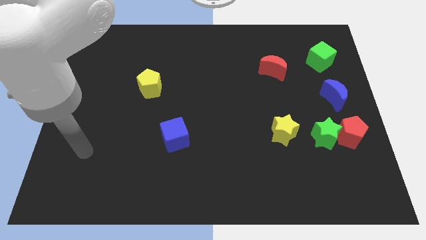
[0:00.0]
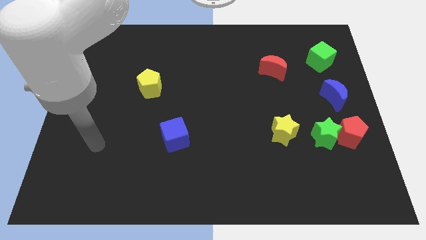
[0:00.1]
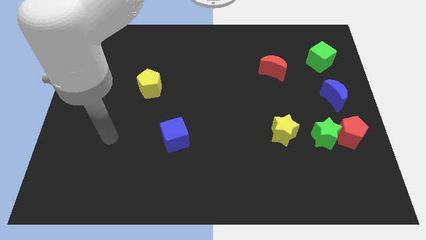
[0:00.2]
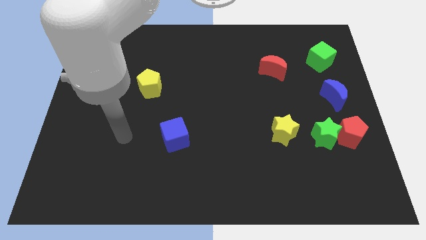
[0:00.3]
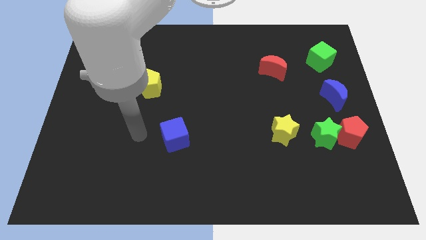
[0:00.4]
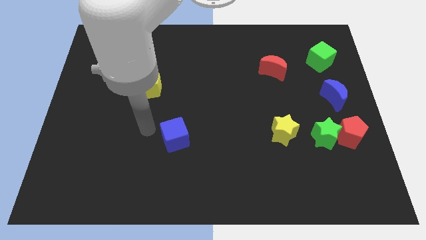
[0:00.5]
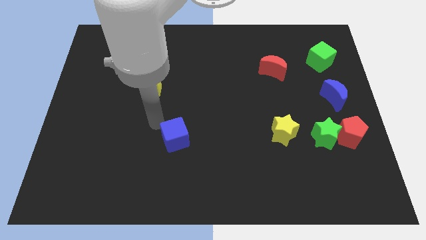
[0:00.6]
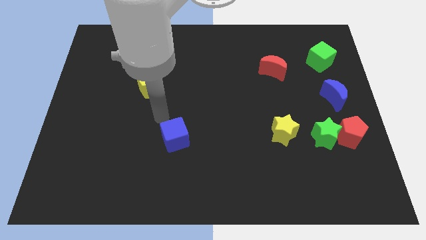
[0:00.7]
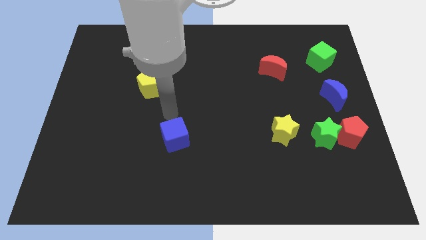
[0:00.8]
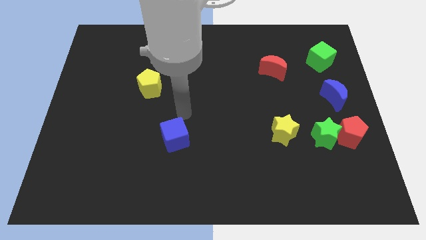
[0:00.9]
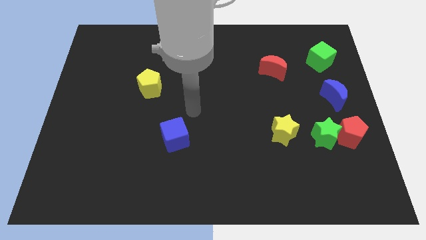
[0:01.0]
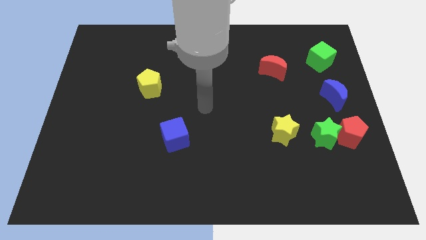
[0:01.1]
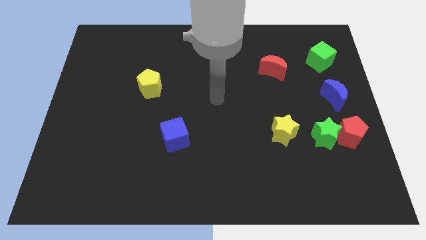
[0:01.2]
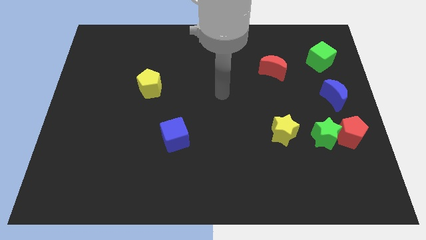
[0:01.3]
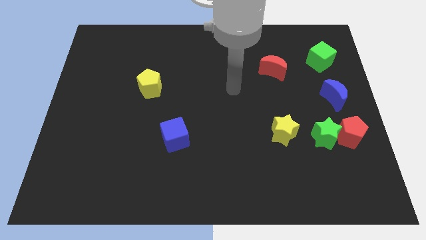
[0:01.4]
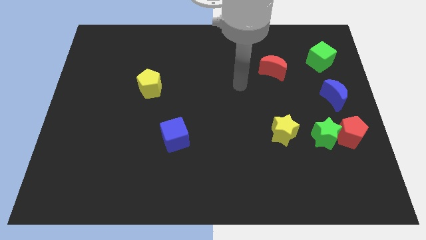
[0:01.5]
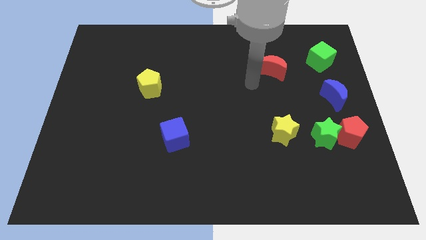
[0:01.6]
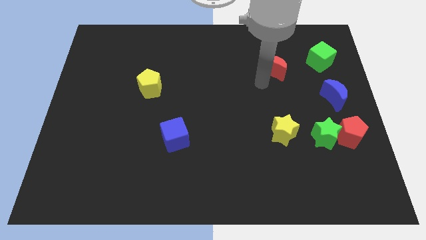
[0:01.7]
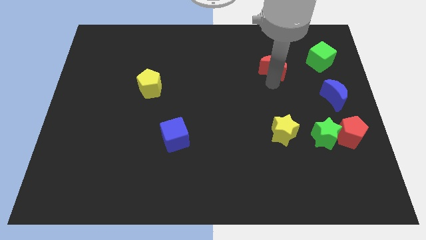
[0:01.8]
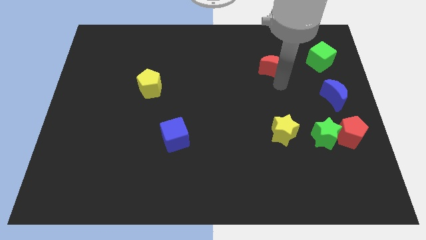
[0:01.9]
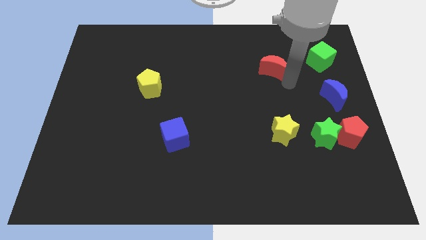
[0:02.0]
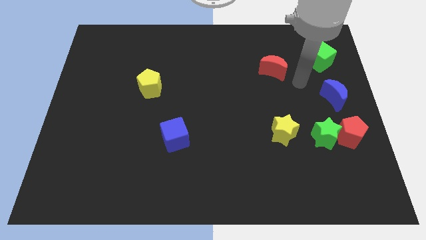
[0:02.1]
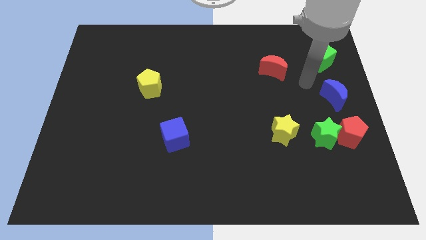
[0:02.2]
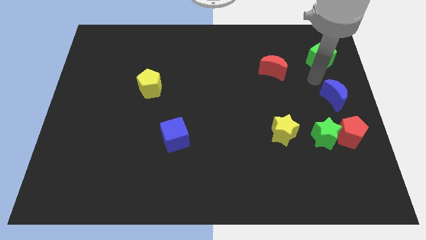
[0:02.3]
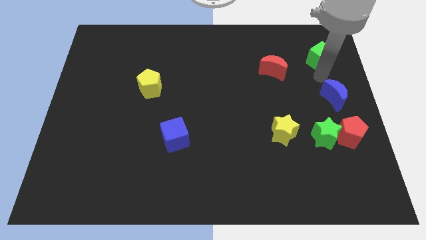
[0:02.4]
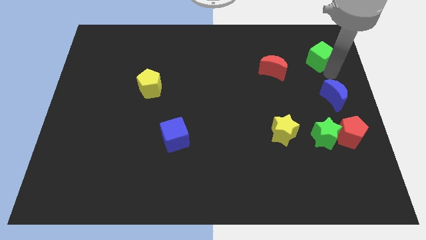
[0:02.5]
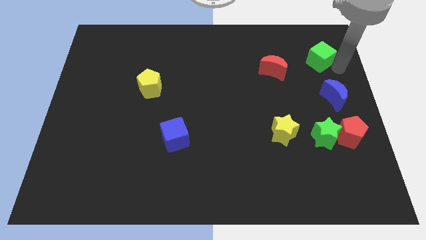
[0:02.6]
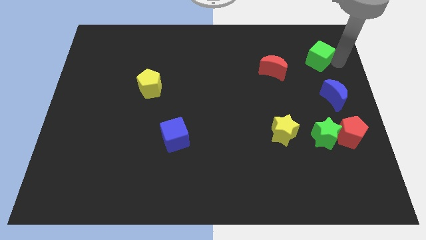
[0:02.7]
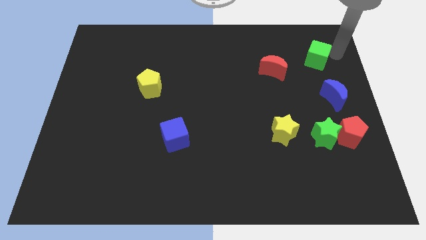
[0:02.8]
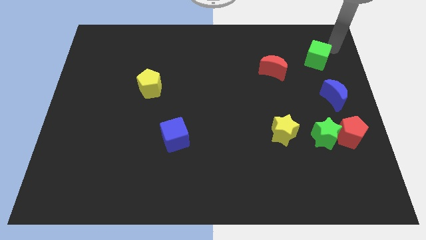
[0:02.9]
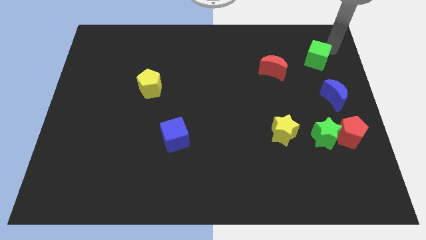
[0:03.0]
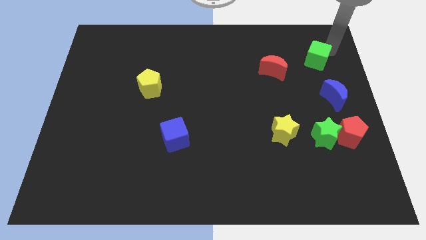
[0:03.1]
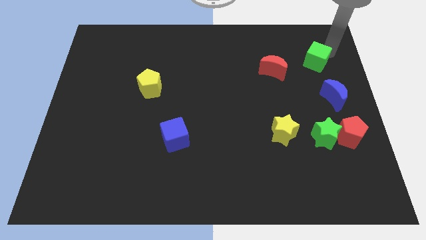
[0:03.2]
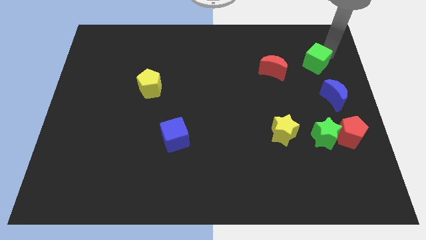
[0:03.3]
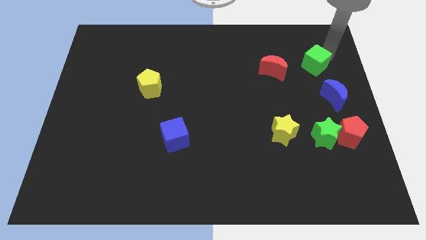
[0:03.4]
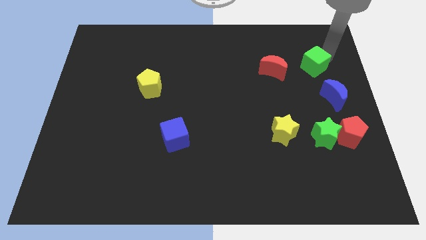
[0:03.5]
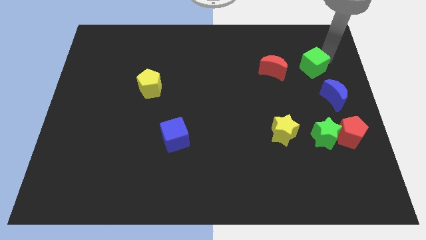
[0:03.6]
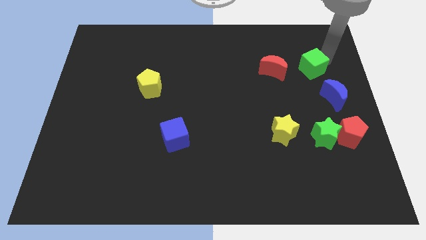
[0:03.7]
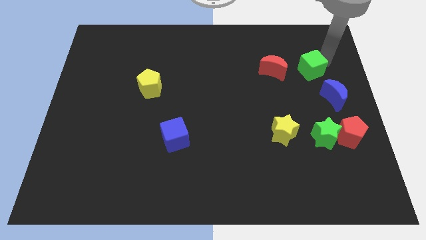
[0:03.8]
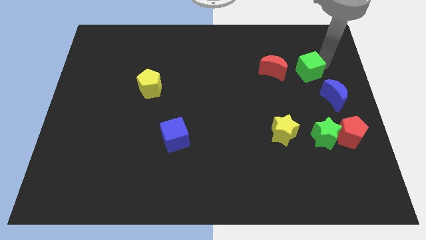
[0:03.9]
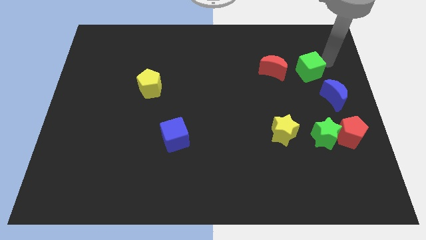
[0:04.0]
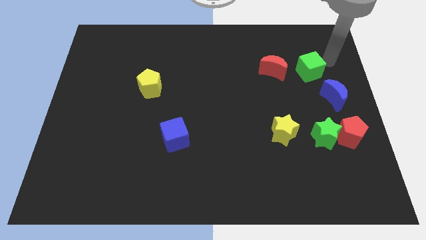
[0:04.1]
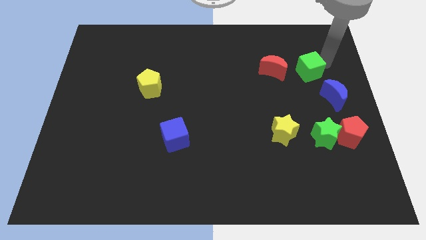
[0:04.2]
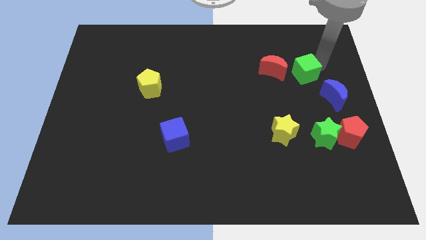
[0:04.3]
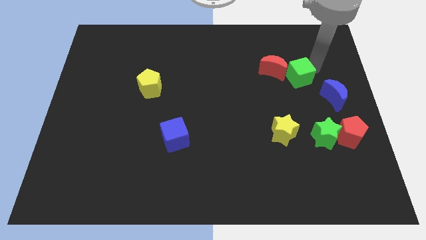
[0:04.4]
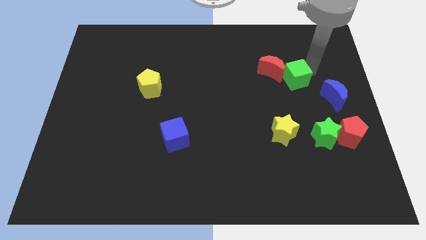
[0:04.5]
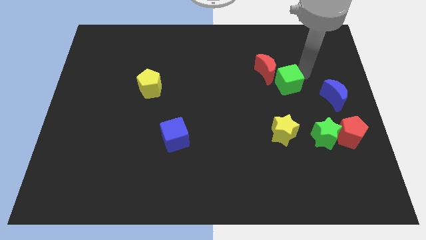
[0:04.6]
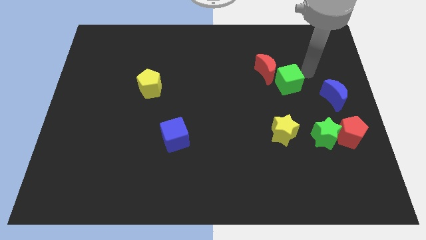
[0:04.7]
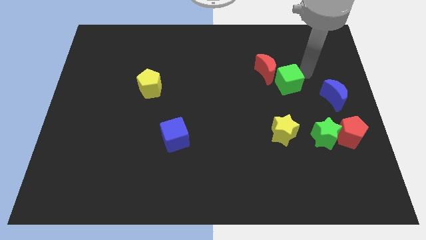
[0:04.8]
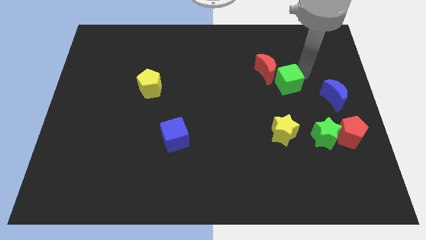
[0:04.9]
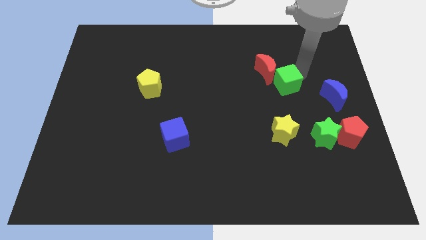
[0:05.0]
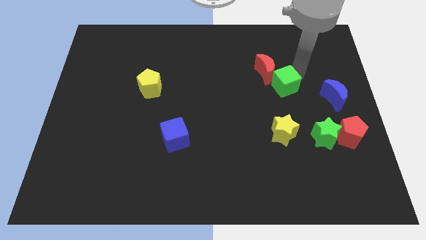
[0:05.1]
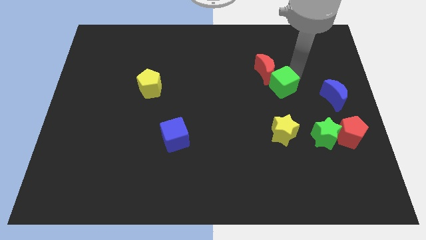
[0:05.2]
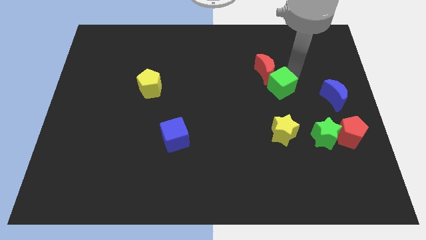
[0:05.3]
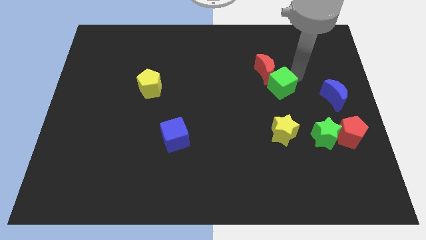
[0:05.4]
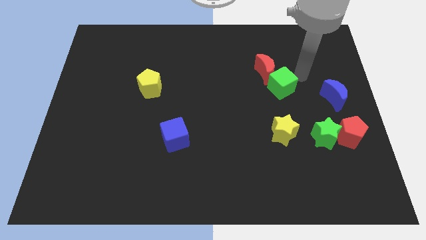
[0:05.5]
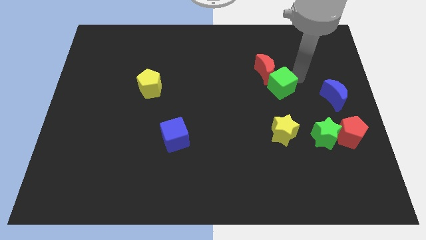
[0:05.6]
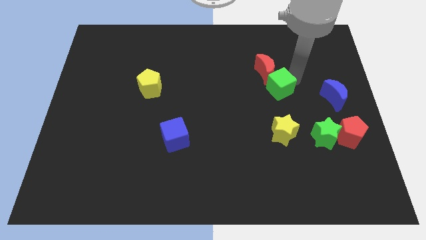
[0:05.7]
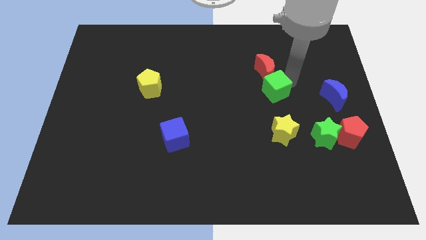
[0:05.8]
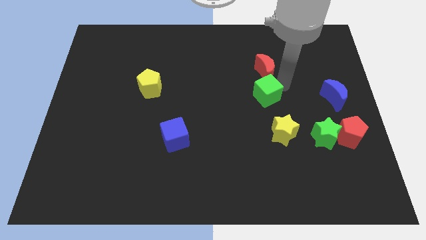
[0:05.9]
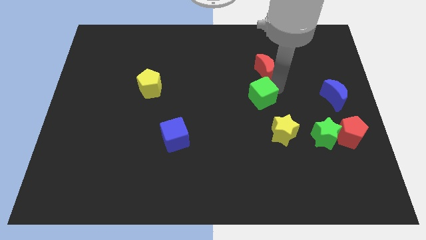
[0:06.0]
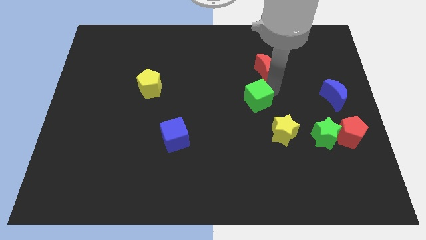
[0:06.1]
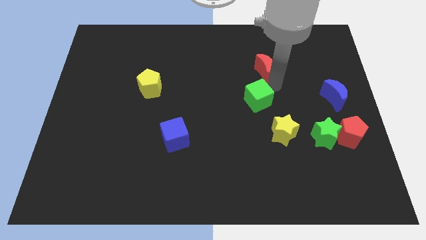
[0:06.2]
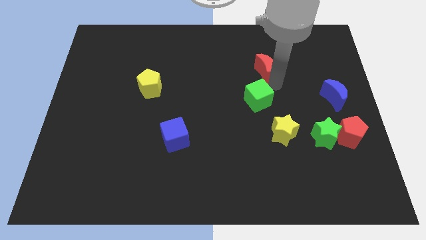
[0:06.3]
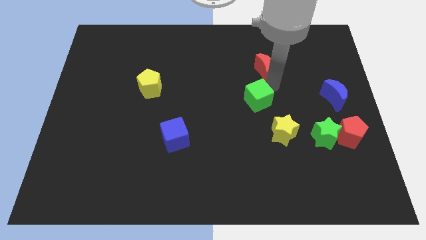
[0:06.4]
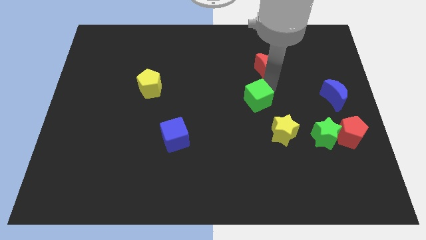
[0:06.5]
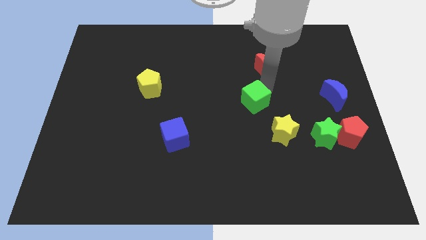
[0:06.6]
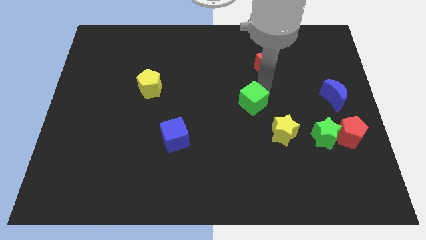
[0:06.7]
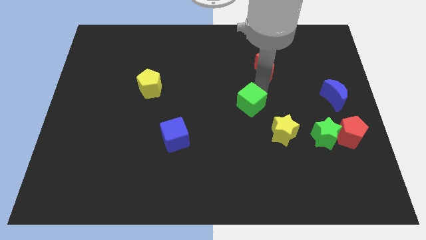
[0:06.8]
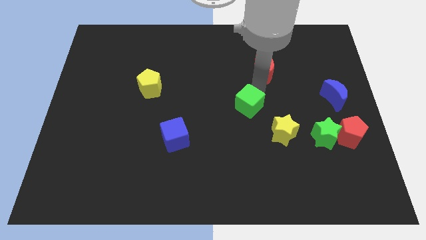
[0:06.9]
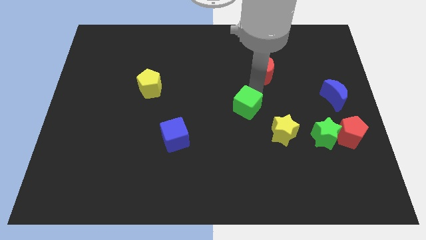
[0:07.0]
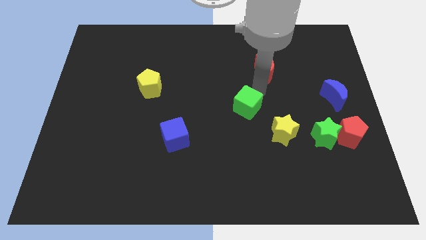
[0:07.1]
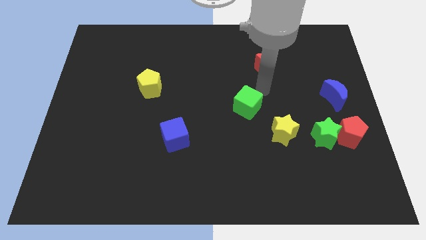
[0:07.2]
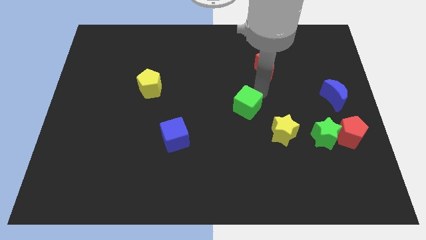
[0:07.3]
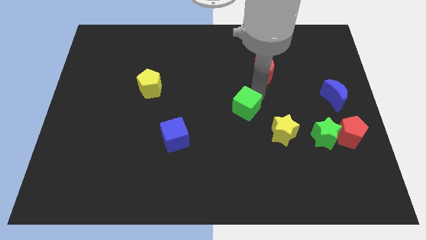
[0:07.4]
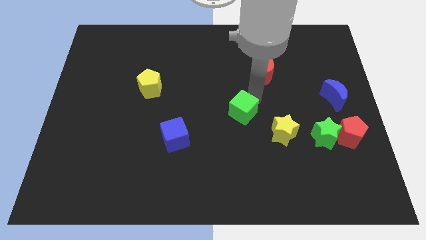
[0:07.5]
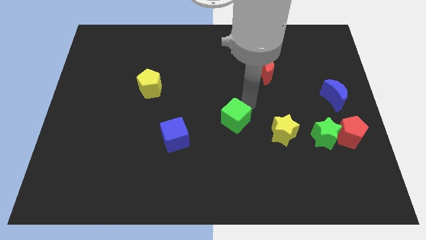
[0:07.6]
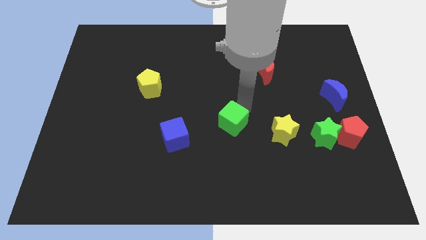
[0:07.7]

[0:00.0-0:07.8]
slide the green cube to the right of the blue cube

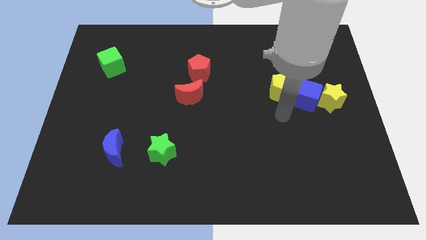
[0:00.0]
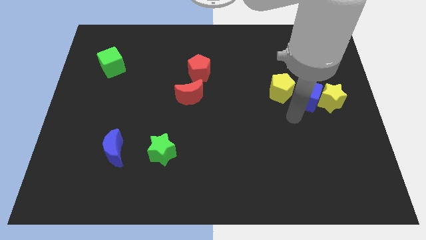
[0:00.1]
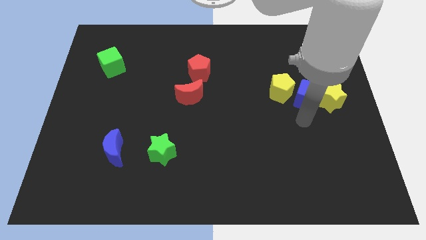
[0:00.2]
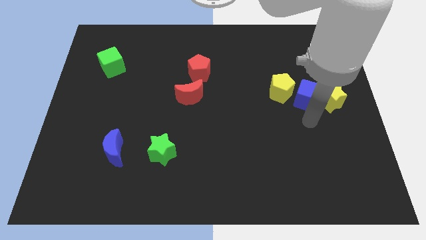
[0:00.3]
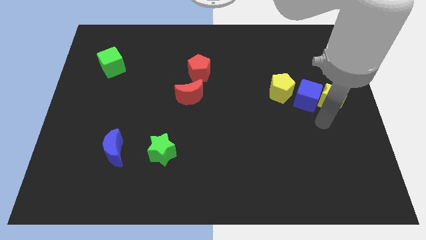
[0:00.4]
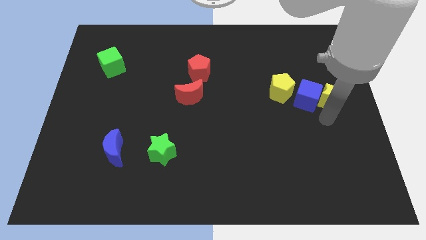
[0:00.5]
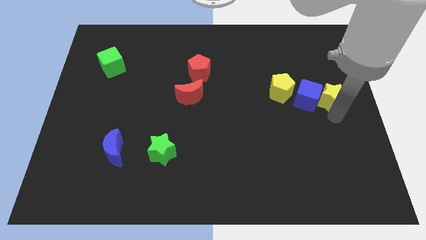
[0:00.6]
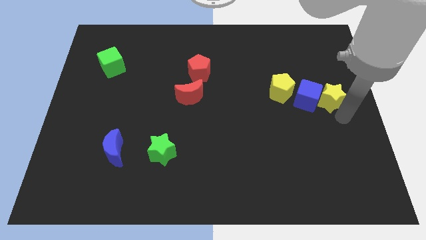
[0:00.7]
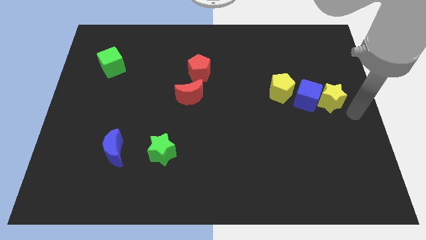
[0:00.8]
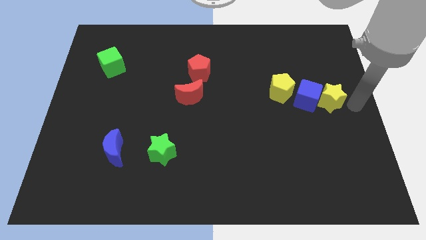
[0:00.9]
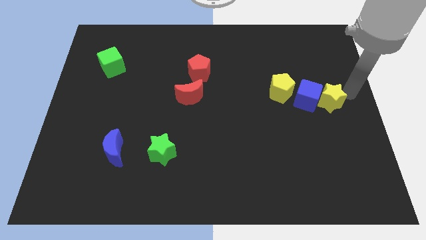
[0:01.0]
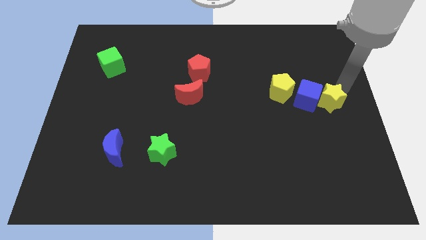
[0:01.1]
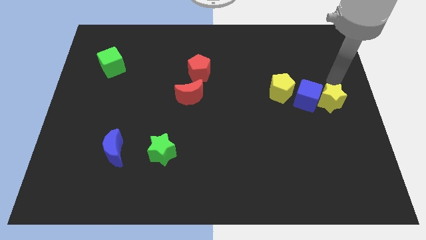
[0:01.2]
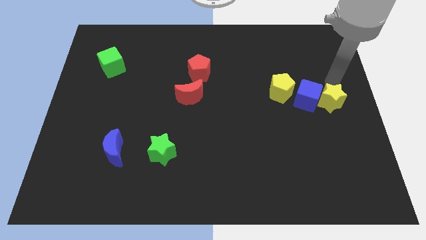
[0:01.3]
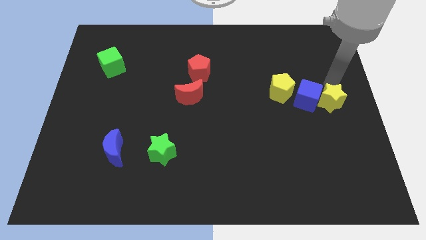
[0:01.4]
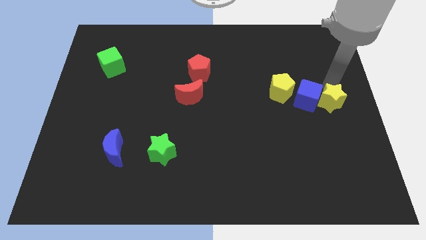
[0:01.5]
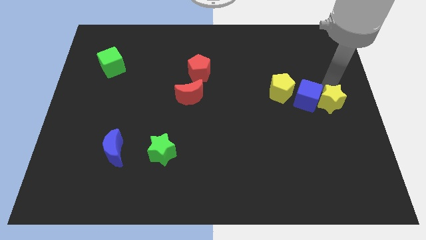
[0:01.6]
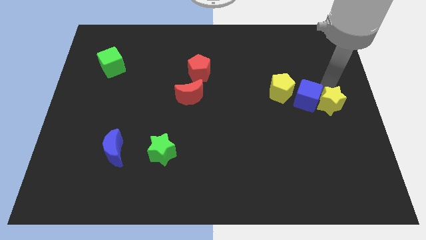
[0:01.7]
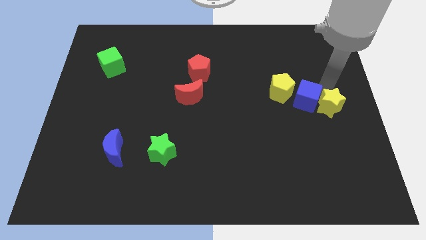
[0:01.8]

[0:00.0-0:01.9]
push the yellow star to the bottom right of the yellow pentagon
